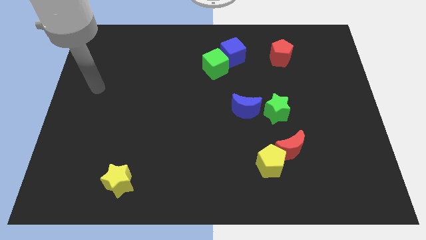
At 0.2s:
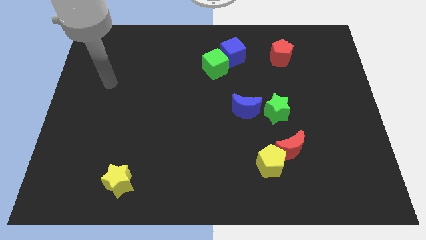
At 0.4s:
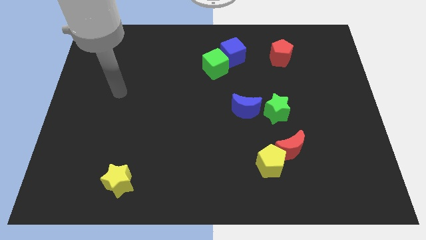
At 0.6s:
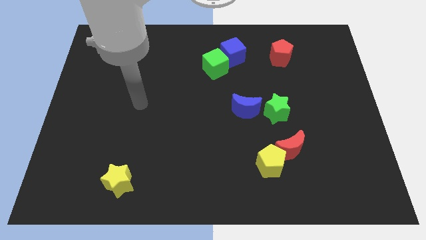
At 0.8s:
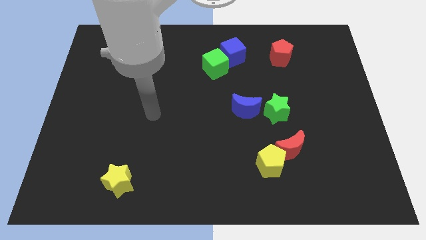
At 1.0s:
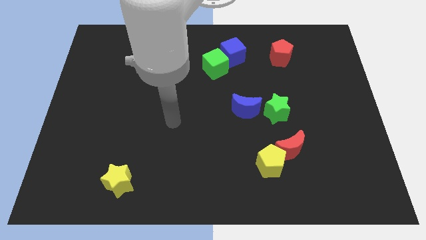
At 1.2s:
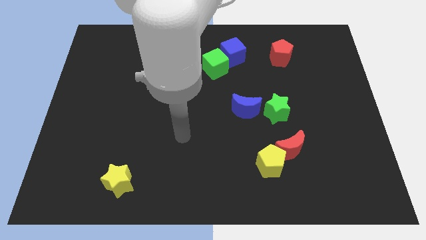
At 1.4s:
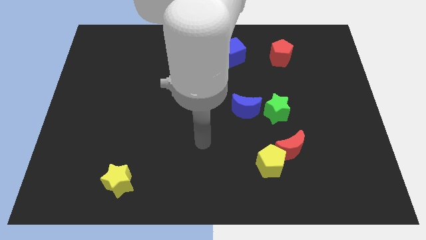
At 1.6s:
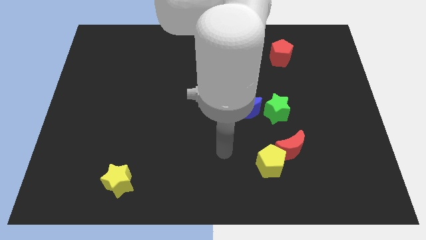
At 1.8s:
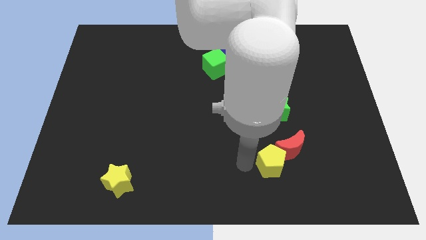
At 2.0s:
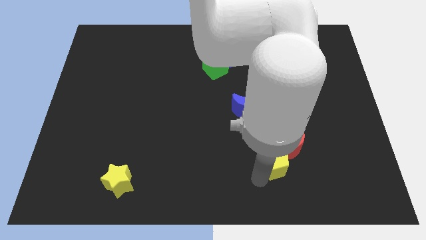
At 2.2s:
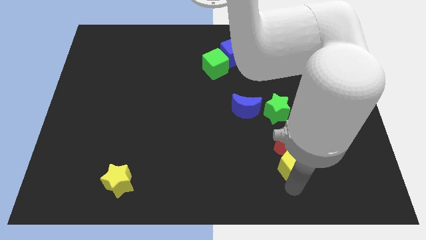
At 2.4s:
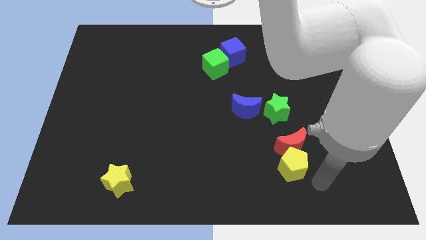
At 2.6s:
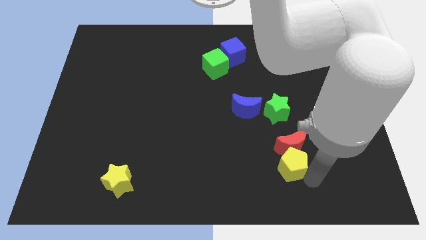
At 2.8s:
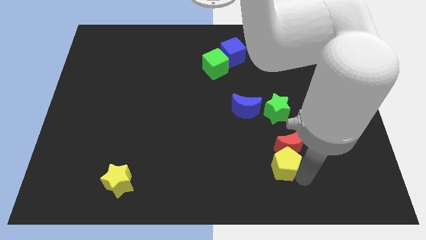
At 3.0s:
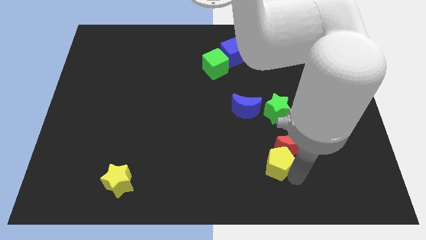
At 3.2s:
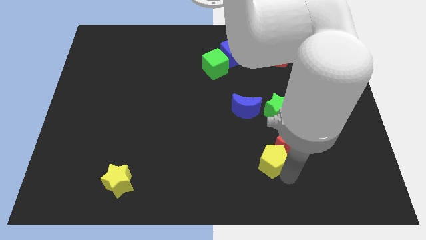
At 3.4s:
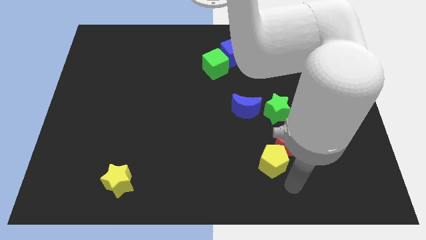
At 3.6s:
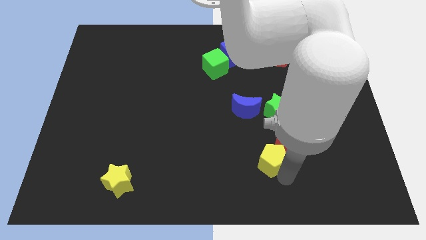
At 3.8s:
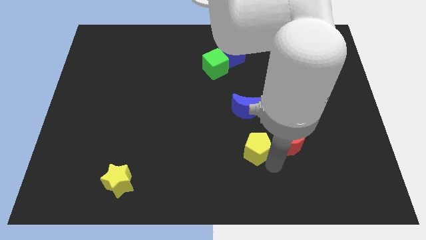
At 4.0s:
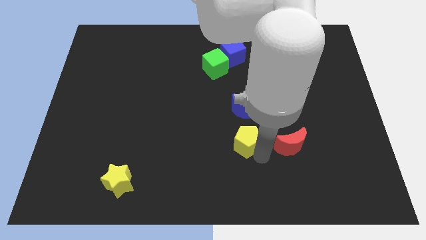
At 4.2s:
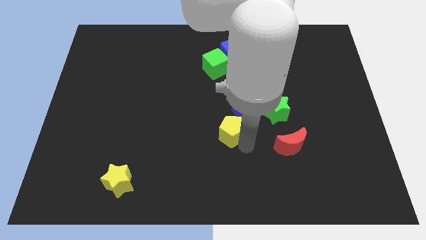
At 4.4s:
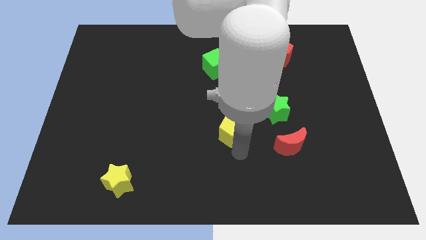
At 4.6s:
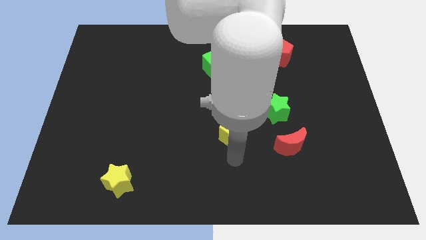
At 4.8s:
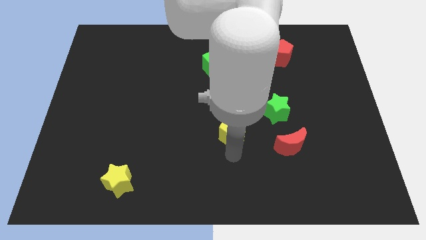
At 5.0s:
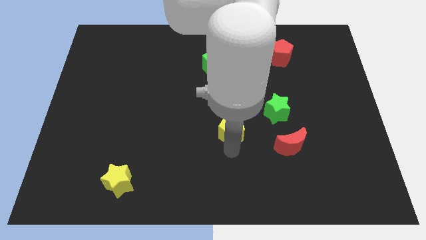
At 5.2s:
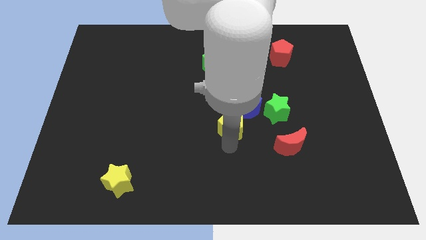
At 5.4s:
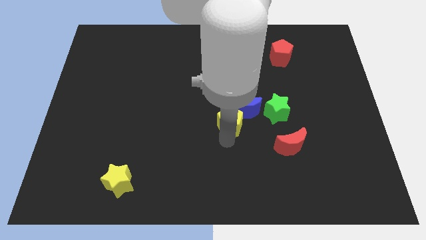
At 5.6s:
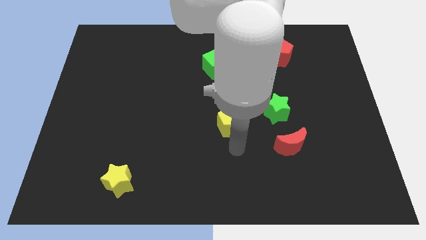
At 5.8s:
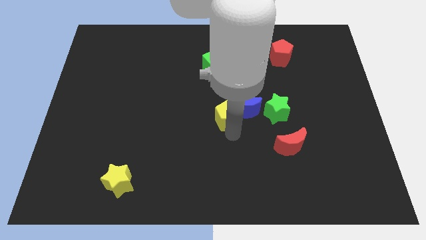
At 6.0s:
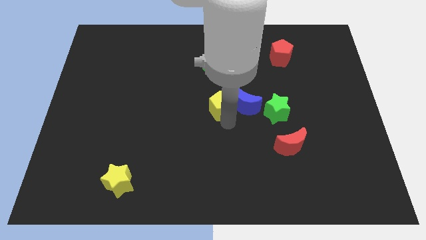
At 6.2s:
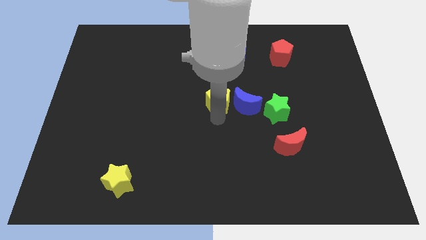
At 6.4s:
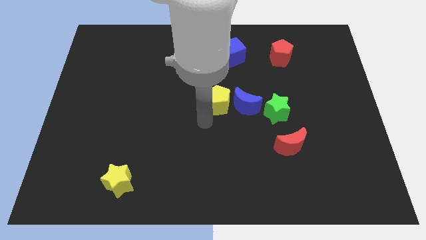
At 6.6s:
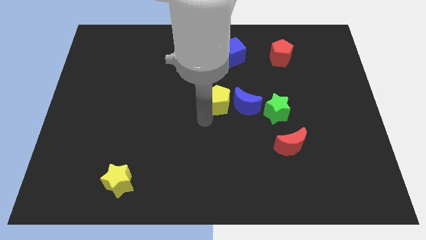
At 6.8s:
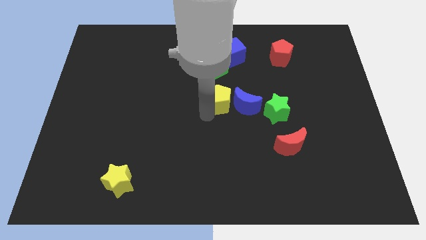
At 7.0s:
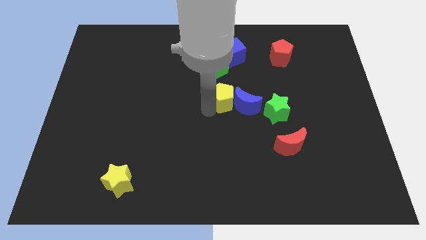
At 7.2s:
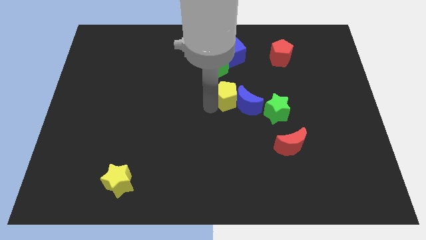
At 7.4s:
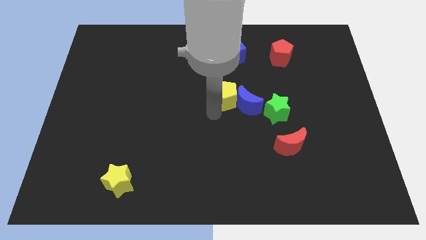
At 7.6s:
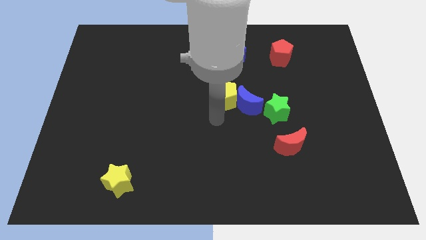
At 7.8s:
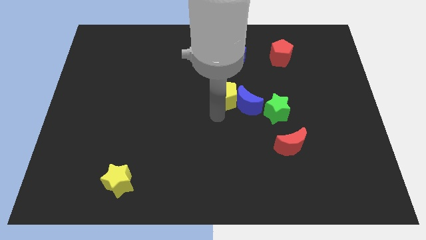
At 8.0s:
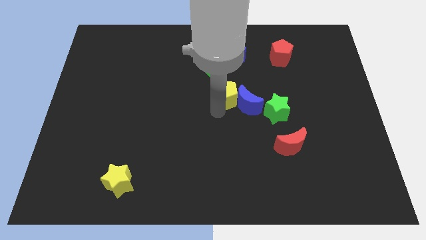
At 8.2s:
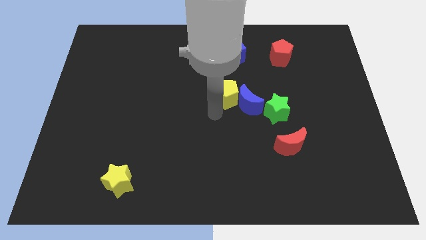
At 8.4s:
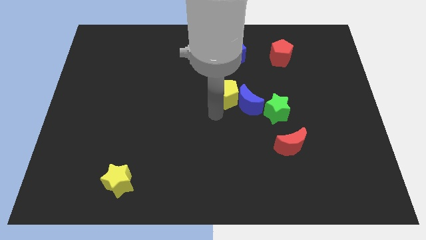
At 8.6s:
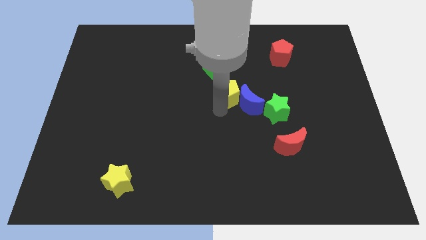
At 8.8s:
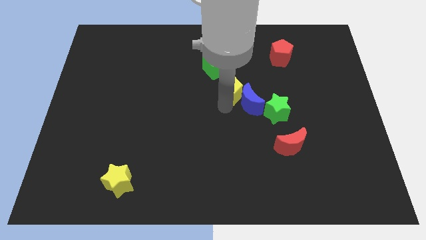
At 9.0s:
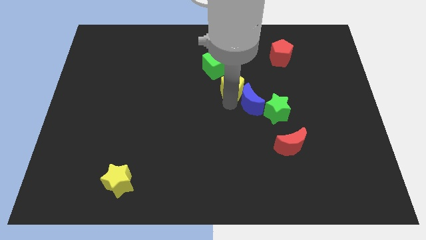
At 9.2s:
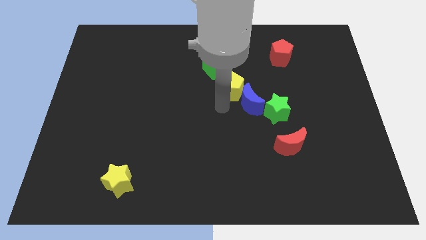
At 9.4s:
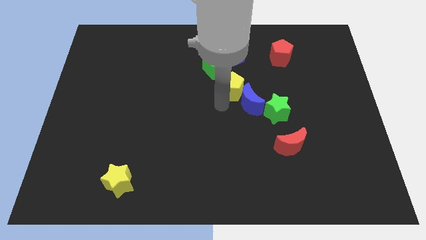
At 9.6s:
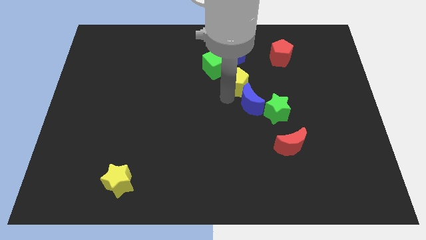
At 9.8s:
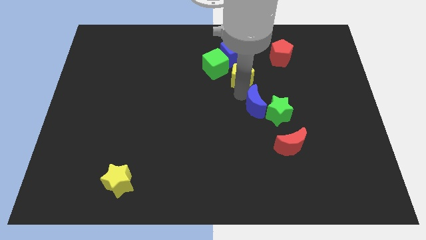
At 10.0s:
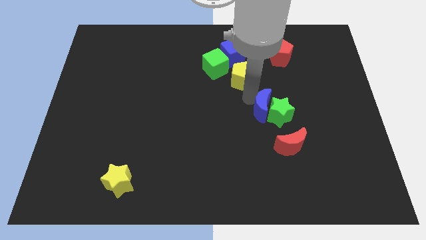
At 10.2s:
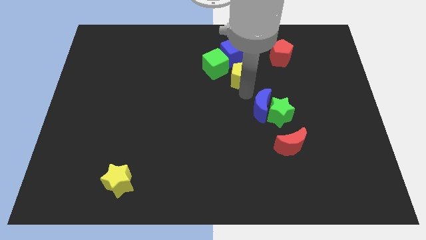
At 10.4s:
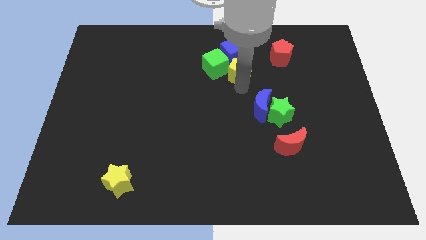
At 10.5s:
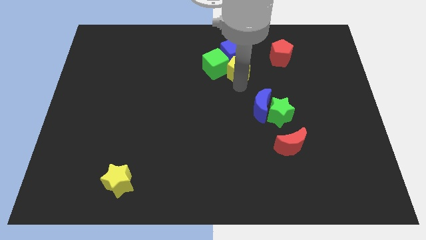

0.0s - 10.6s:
put the yellow pentagon towards the blue cube
